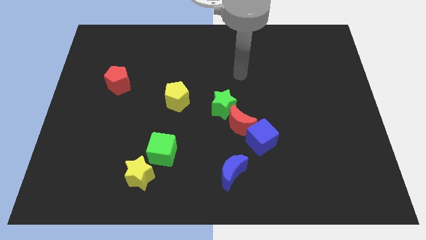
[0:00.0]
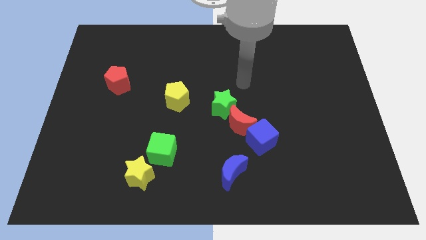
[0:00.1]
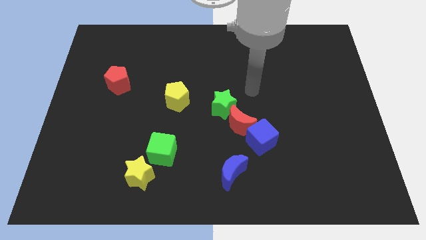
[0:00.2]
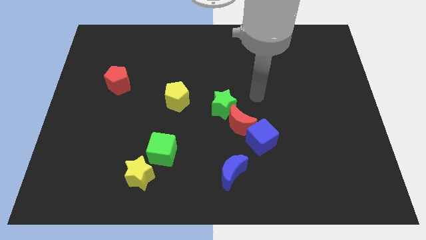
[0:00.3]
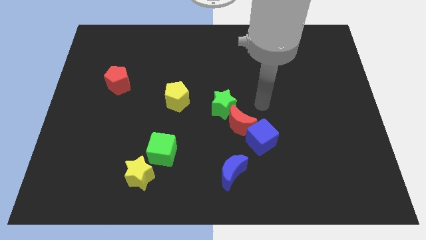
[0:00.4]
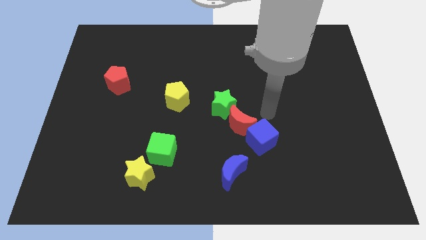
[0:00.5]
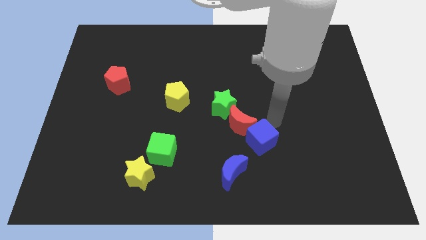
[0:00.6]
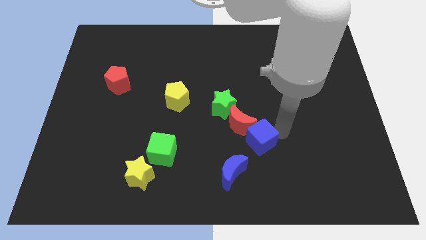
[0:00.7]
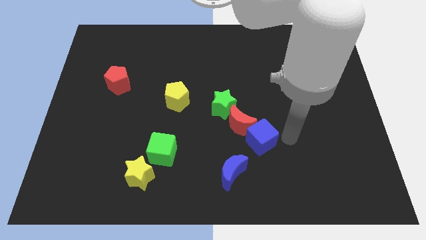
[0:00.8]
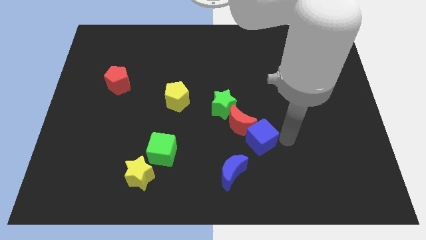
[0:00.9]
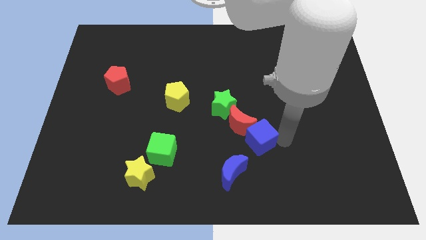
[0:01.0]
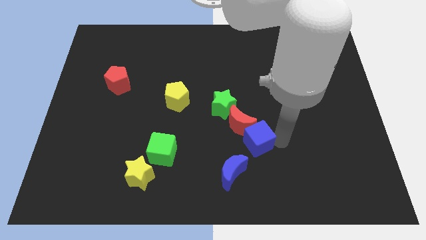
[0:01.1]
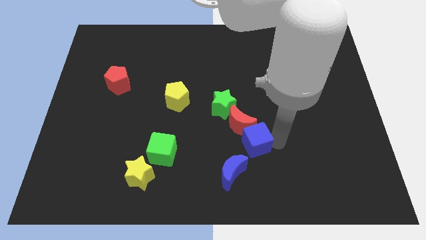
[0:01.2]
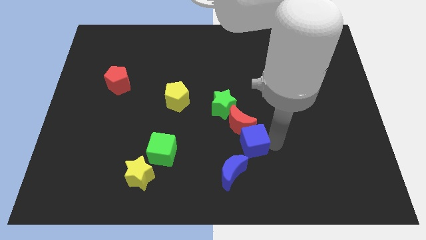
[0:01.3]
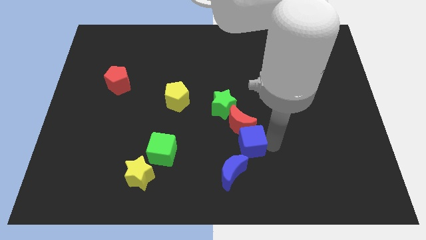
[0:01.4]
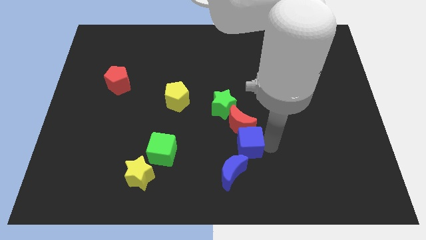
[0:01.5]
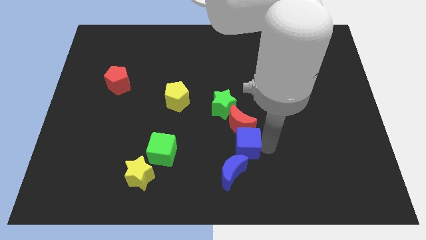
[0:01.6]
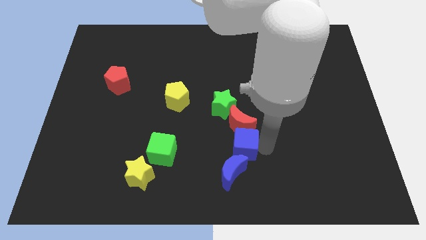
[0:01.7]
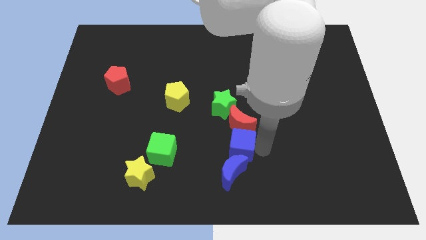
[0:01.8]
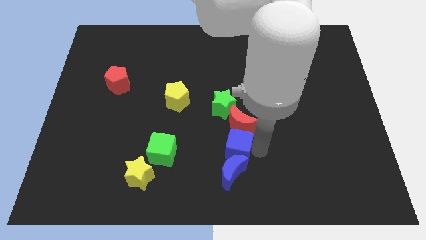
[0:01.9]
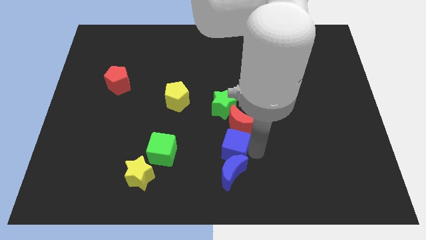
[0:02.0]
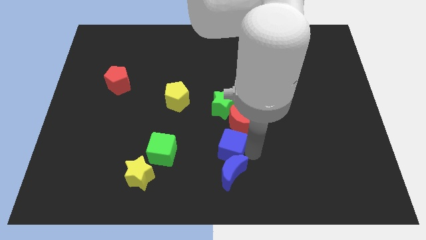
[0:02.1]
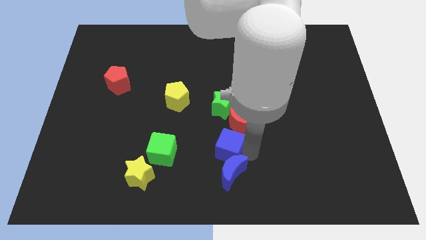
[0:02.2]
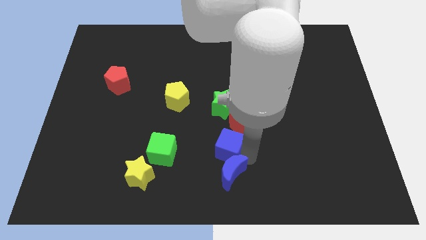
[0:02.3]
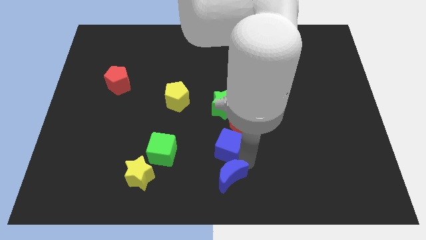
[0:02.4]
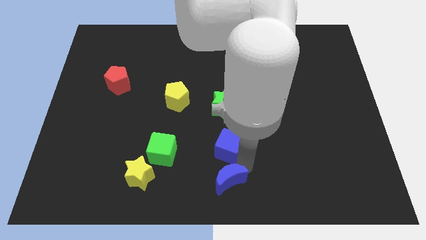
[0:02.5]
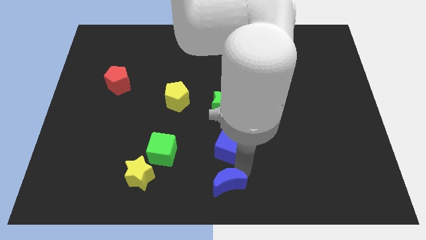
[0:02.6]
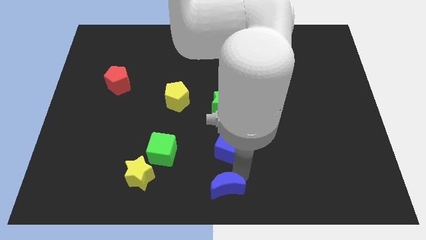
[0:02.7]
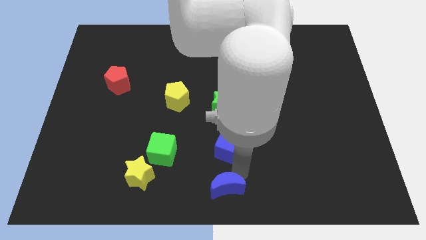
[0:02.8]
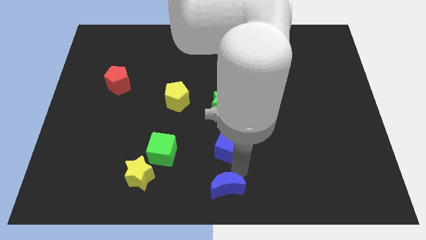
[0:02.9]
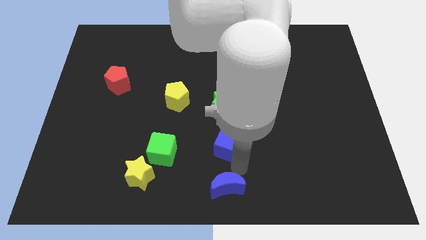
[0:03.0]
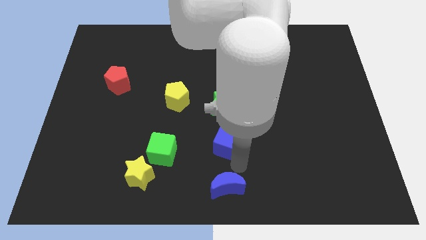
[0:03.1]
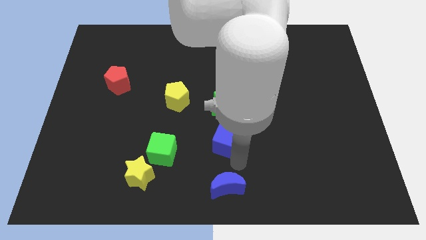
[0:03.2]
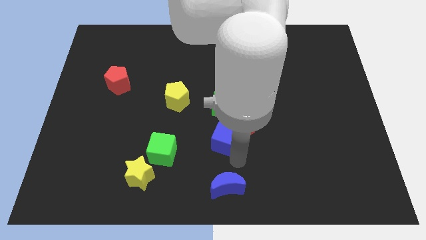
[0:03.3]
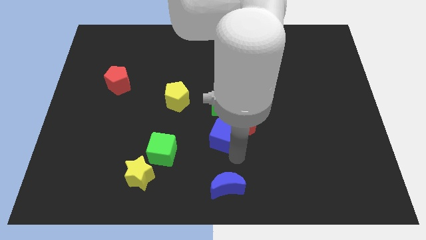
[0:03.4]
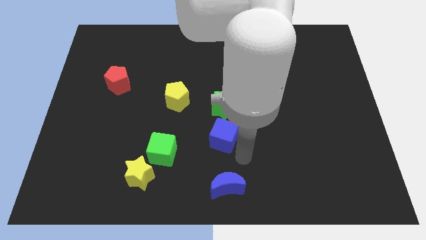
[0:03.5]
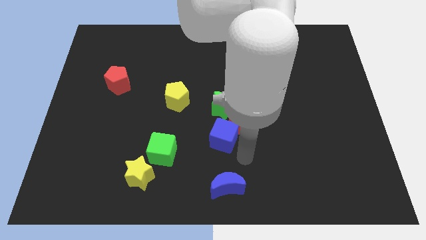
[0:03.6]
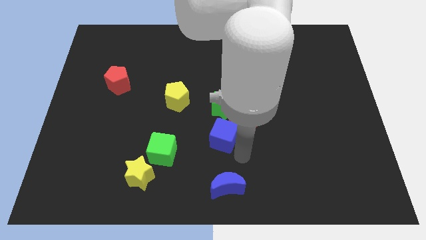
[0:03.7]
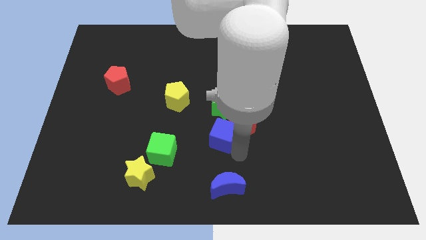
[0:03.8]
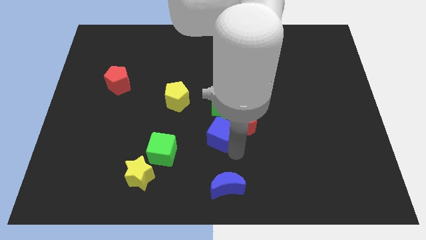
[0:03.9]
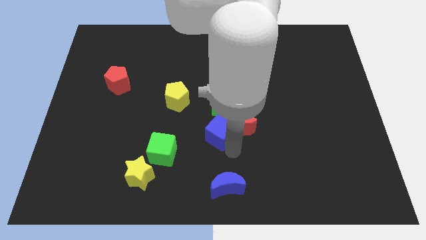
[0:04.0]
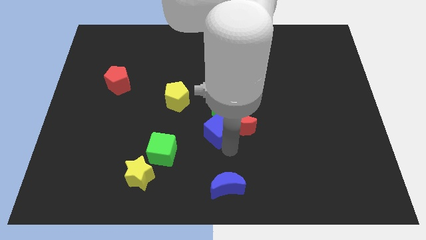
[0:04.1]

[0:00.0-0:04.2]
slide the blue cube slightly upwards and left diagonally

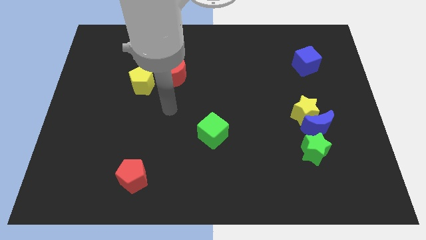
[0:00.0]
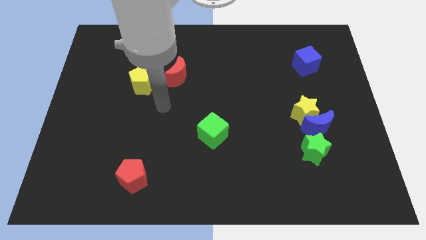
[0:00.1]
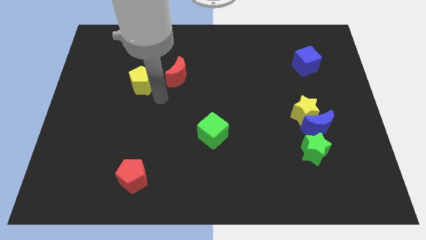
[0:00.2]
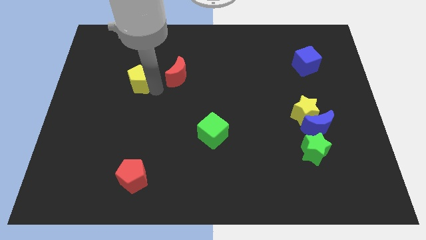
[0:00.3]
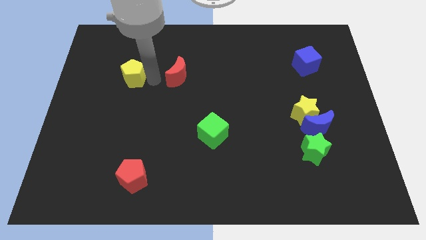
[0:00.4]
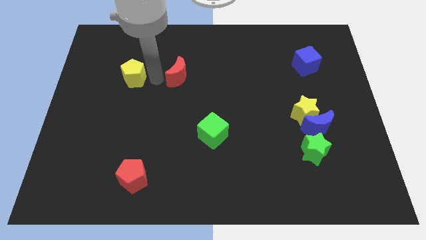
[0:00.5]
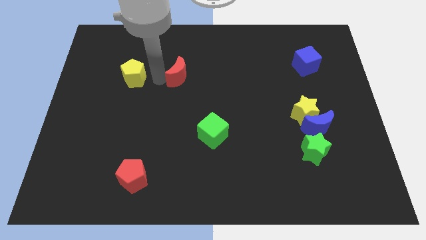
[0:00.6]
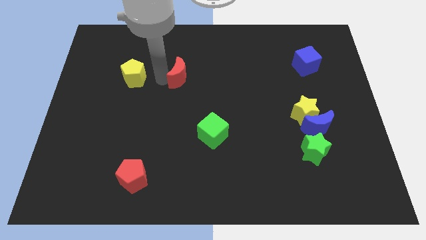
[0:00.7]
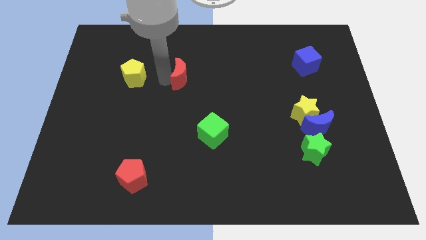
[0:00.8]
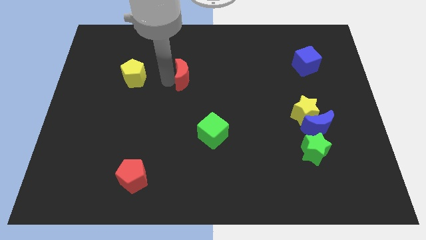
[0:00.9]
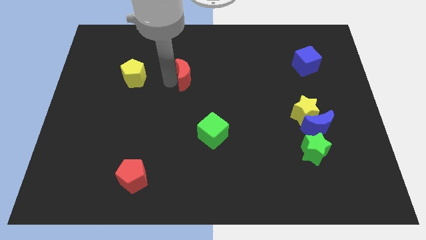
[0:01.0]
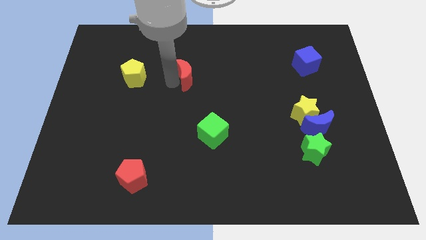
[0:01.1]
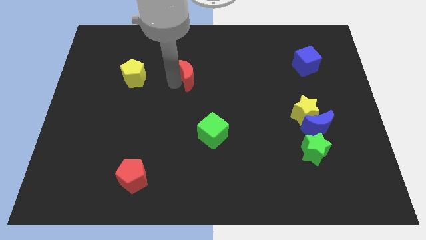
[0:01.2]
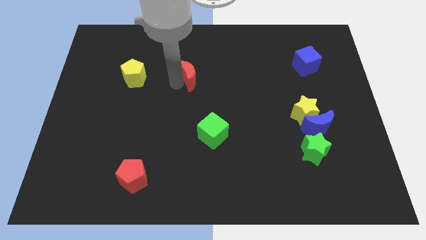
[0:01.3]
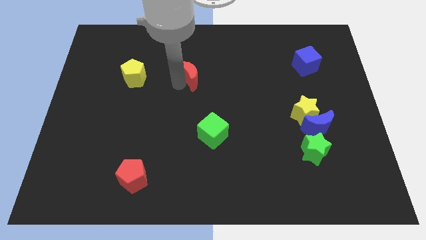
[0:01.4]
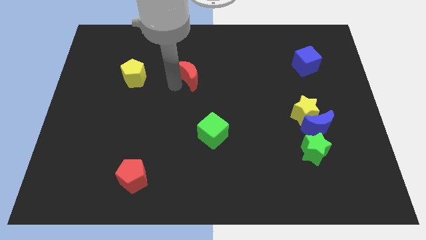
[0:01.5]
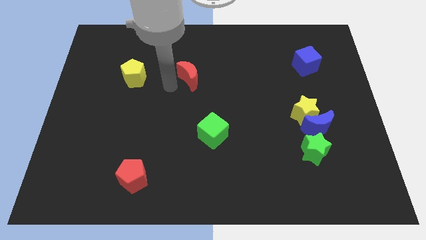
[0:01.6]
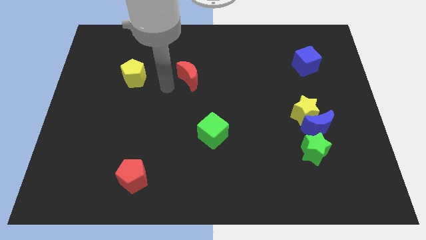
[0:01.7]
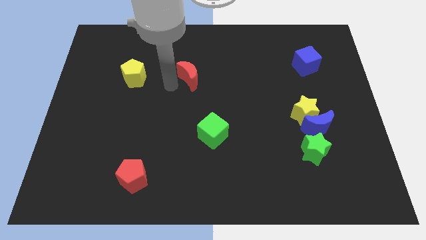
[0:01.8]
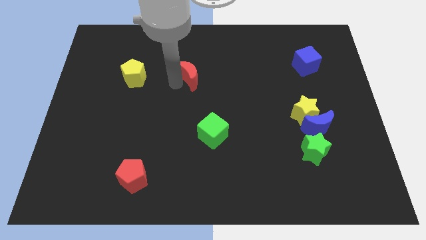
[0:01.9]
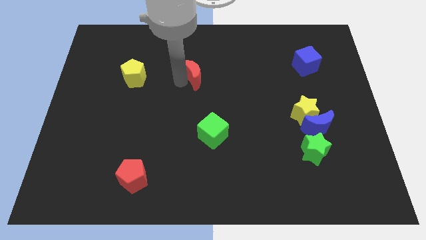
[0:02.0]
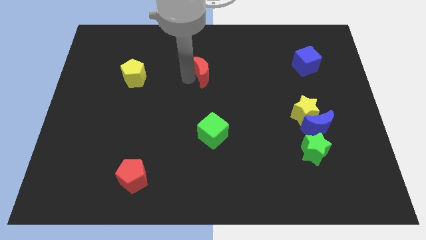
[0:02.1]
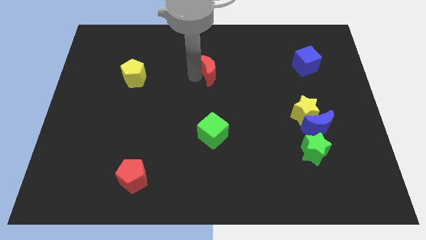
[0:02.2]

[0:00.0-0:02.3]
move the red moon to the right somewhat

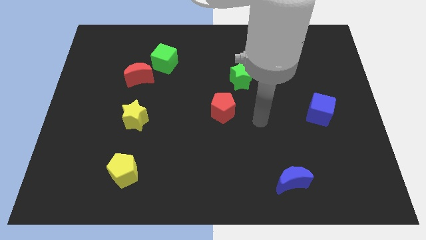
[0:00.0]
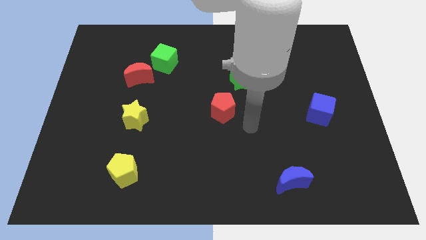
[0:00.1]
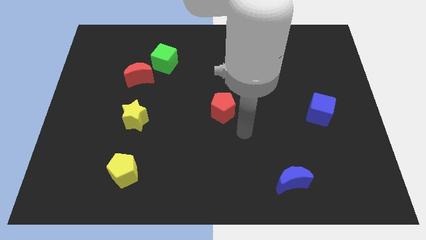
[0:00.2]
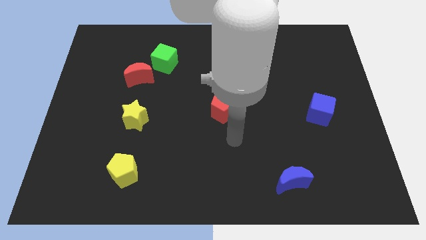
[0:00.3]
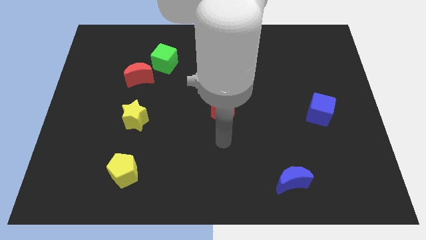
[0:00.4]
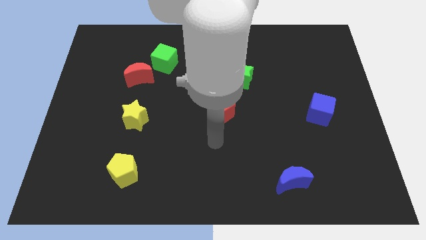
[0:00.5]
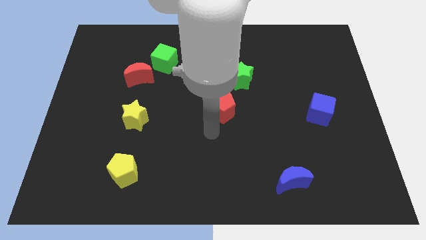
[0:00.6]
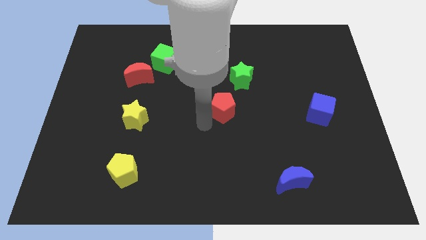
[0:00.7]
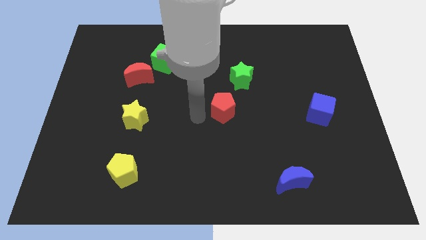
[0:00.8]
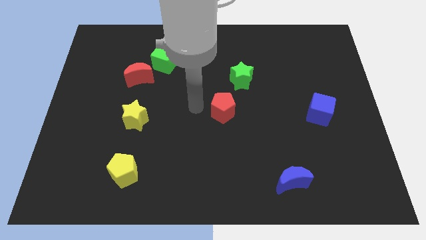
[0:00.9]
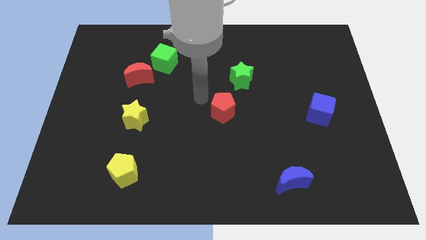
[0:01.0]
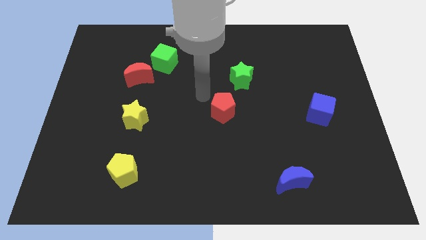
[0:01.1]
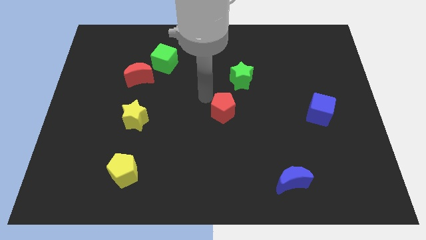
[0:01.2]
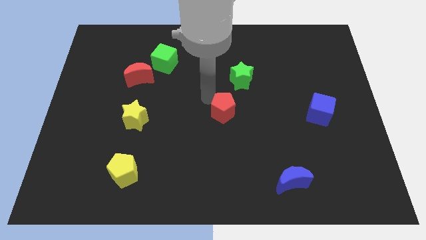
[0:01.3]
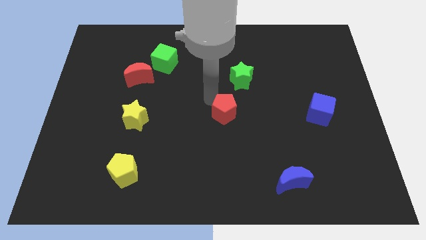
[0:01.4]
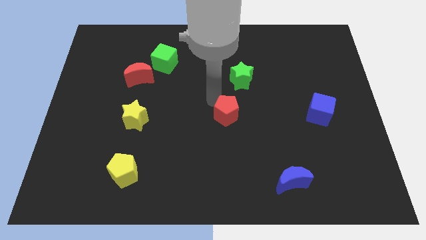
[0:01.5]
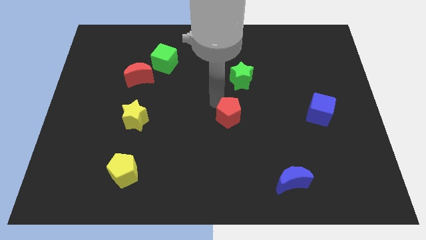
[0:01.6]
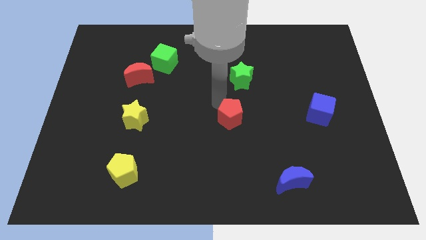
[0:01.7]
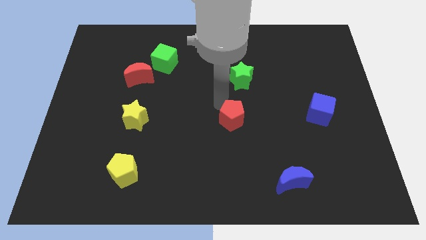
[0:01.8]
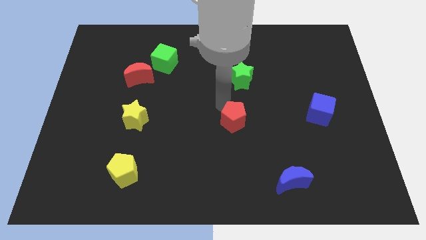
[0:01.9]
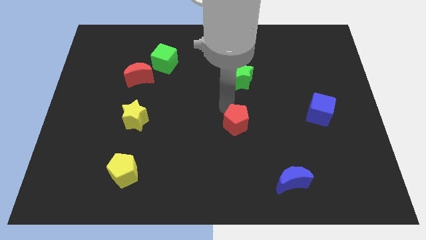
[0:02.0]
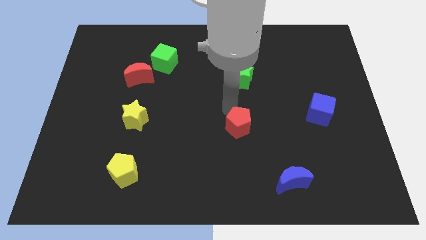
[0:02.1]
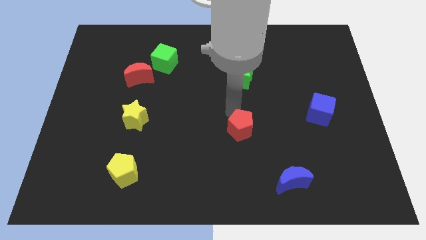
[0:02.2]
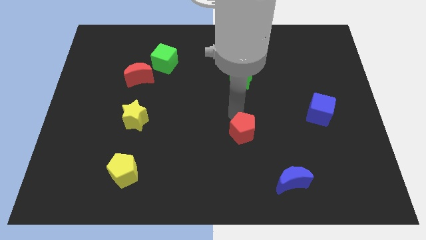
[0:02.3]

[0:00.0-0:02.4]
slide the red pentagon somewhat diagonally downwards and right
